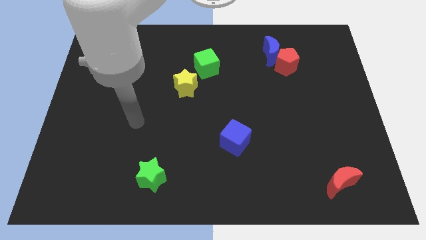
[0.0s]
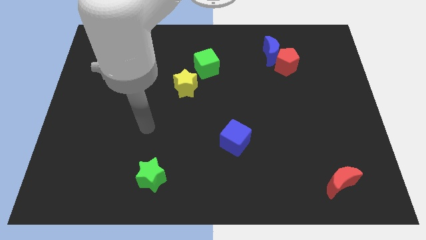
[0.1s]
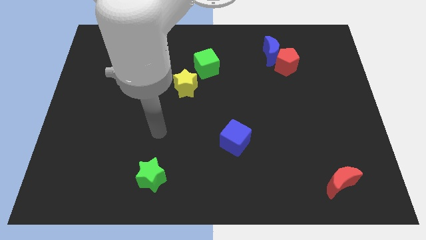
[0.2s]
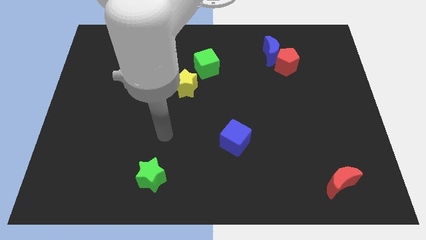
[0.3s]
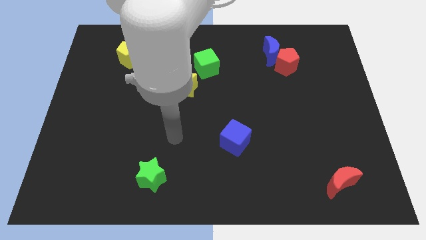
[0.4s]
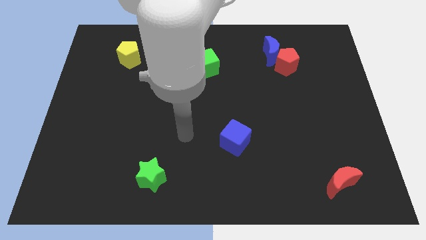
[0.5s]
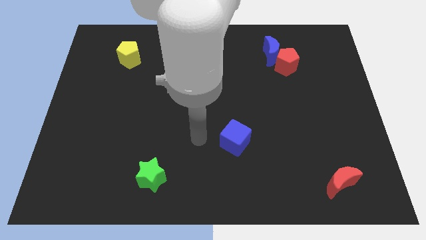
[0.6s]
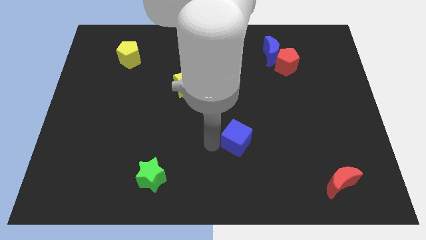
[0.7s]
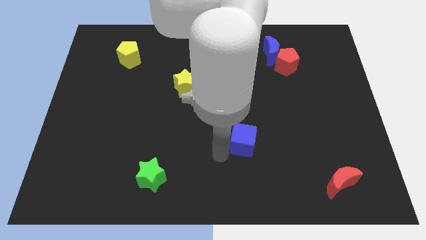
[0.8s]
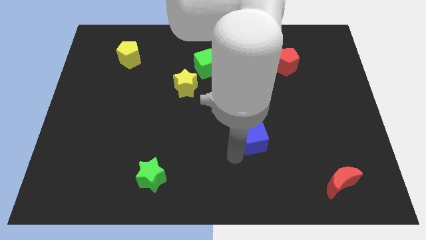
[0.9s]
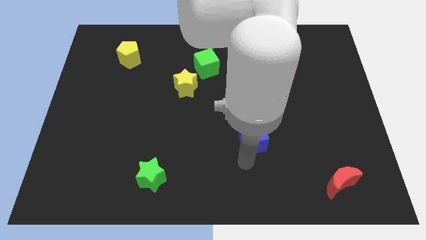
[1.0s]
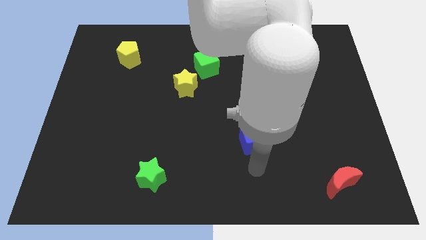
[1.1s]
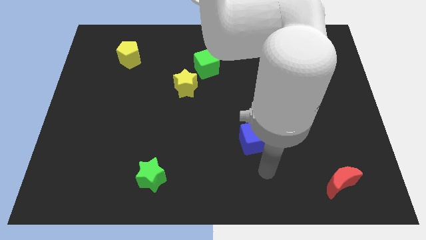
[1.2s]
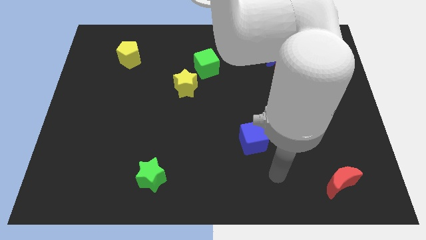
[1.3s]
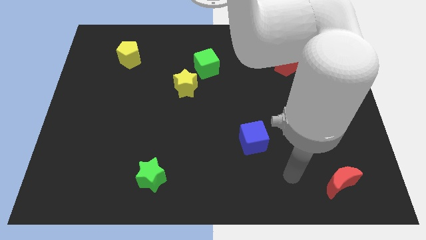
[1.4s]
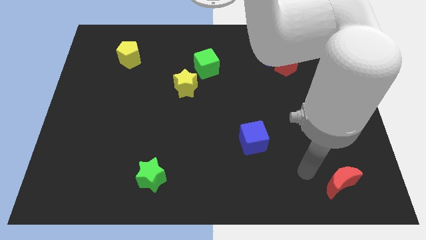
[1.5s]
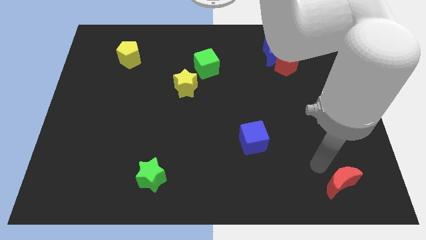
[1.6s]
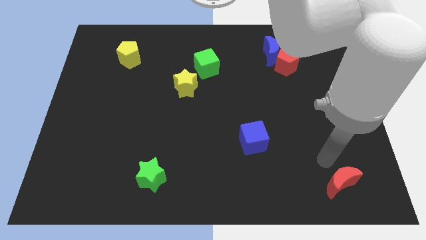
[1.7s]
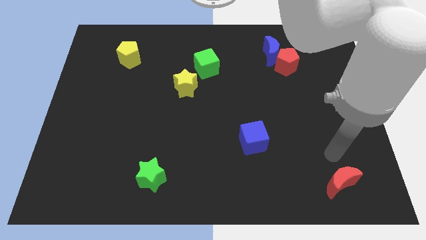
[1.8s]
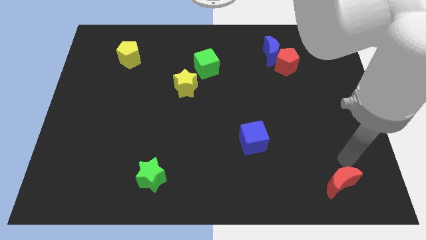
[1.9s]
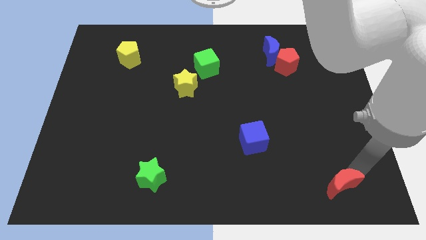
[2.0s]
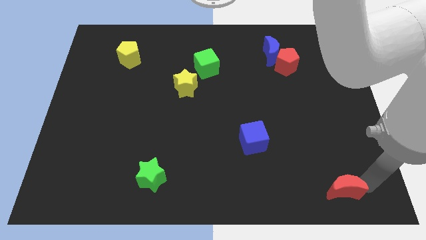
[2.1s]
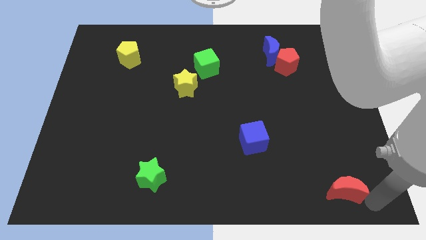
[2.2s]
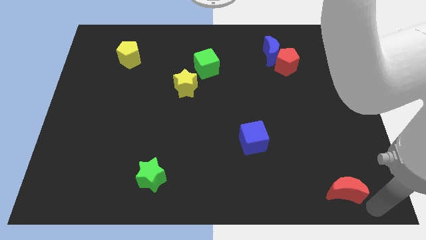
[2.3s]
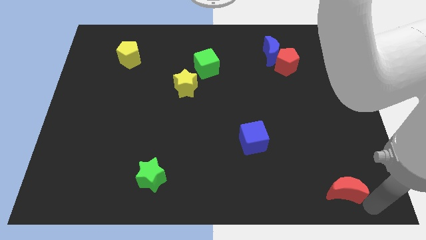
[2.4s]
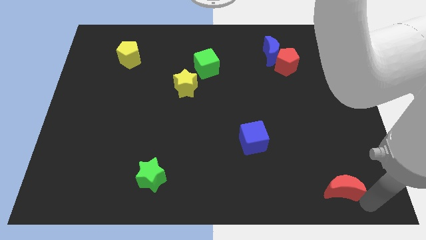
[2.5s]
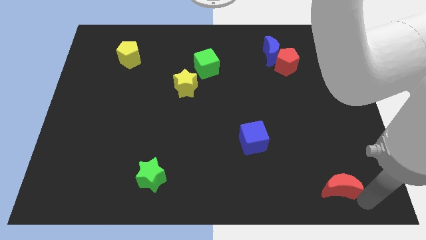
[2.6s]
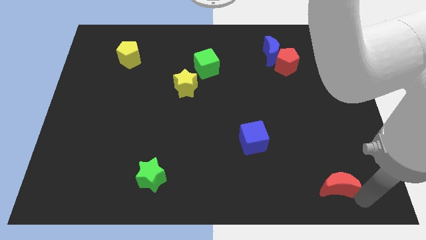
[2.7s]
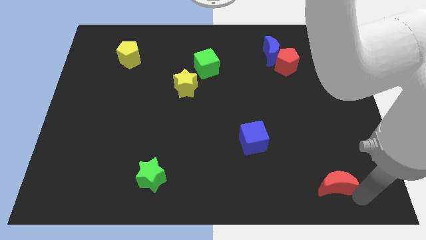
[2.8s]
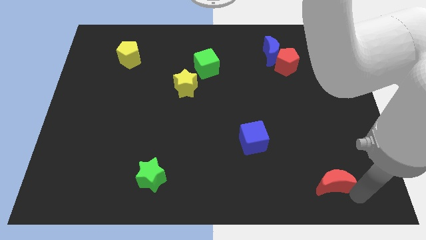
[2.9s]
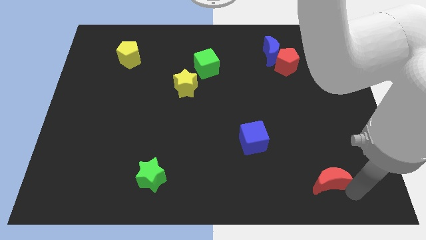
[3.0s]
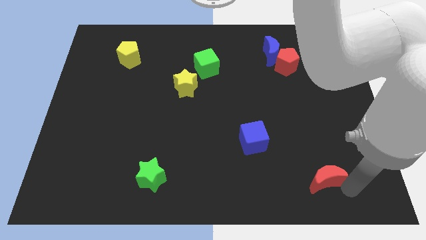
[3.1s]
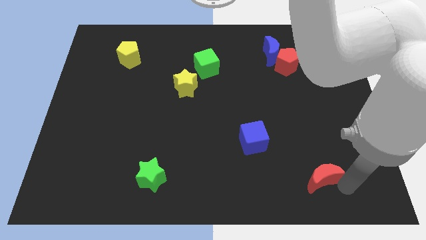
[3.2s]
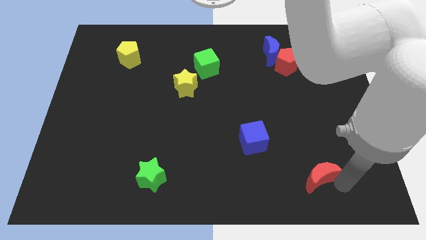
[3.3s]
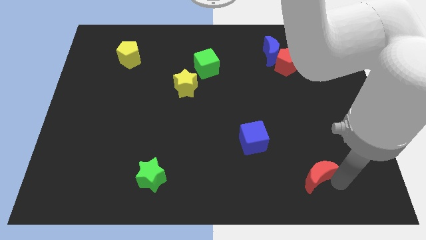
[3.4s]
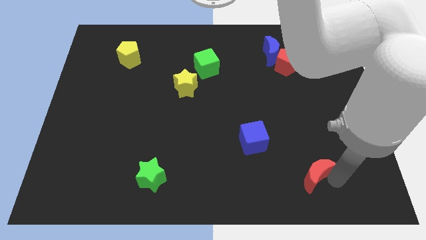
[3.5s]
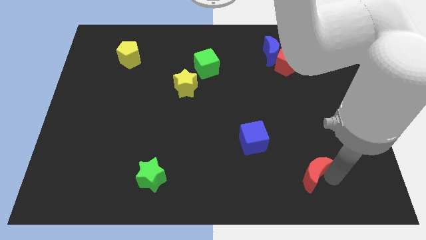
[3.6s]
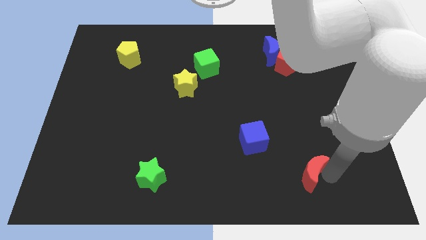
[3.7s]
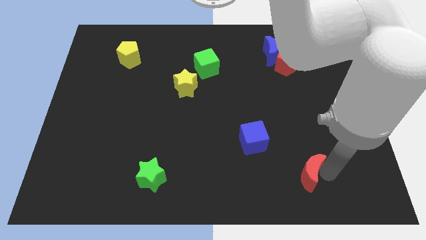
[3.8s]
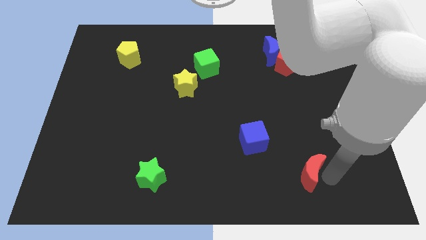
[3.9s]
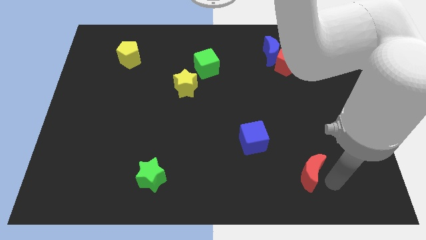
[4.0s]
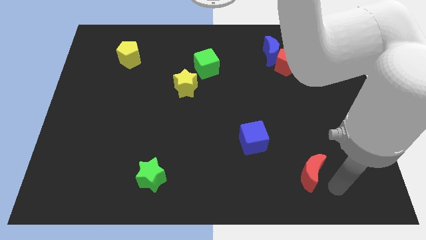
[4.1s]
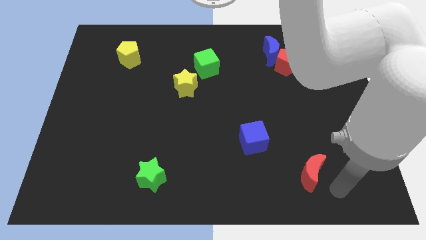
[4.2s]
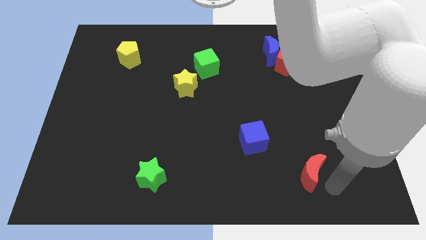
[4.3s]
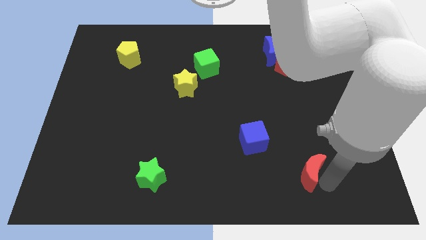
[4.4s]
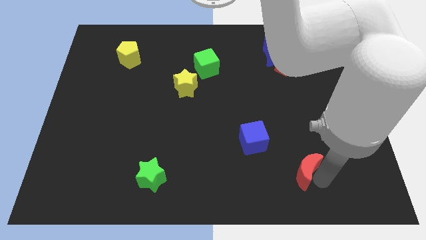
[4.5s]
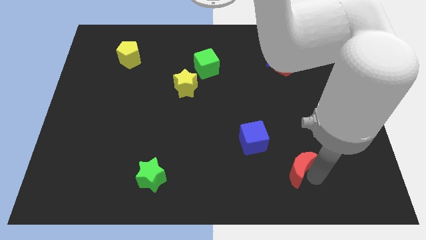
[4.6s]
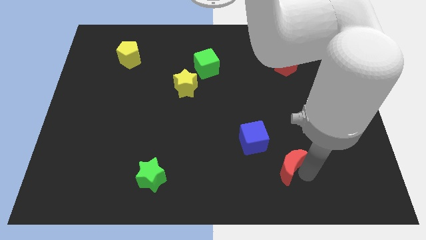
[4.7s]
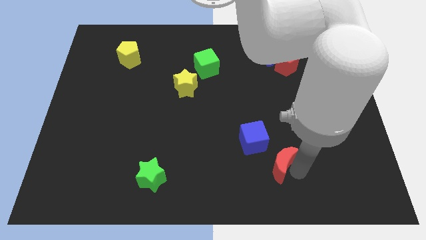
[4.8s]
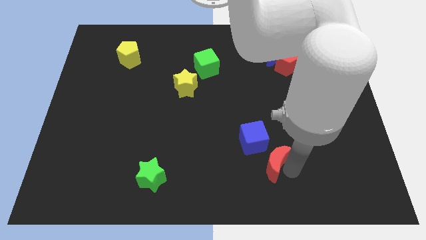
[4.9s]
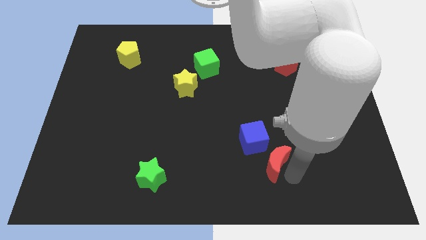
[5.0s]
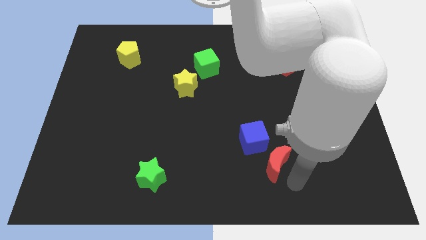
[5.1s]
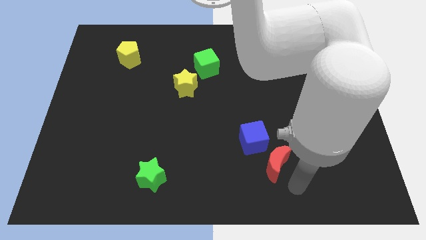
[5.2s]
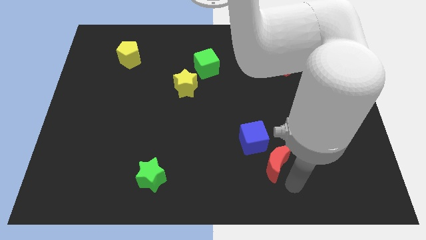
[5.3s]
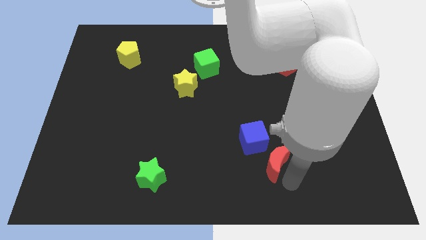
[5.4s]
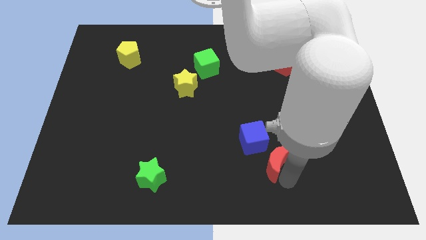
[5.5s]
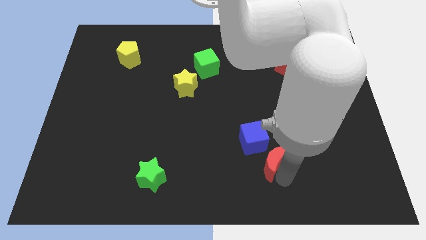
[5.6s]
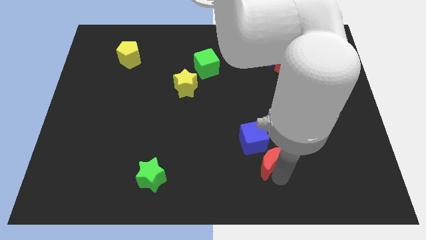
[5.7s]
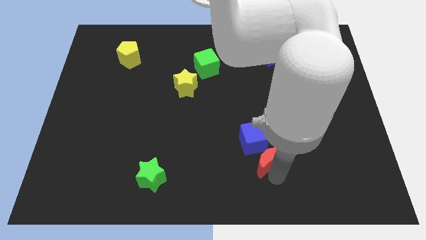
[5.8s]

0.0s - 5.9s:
move the red moon next to the blue cube

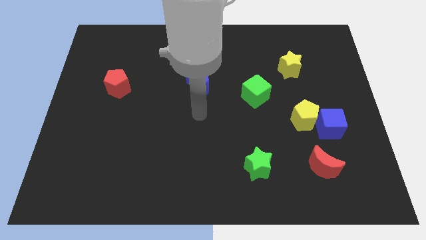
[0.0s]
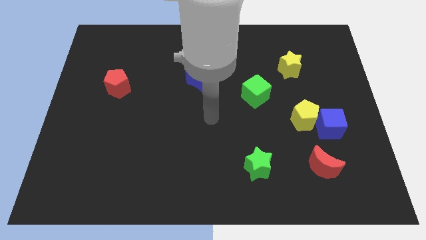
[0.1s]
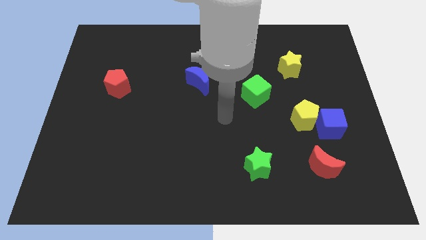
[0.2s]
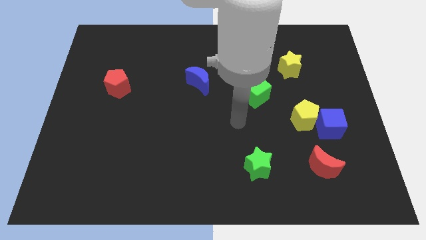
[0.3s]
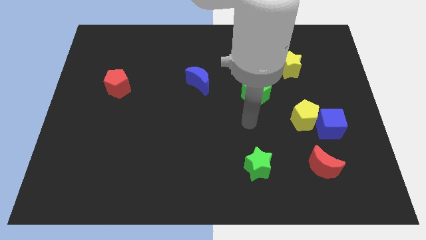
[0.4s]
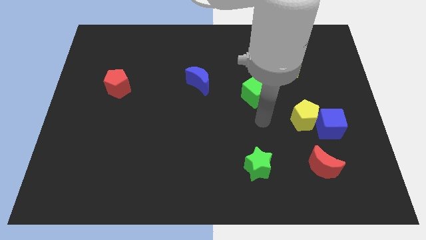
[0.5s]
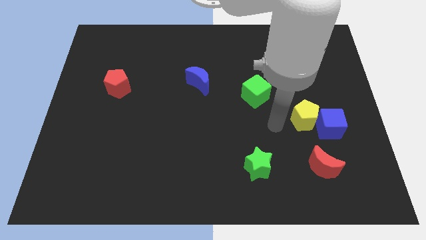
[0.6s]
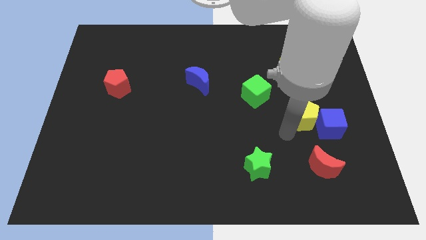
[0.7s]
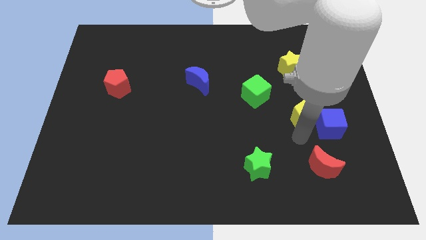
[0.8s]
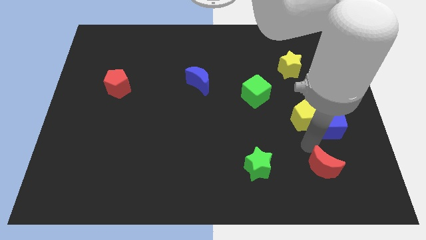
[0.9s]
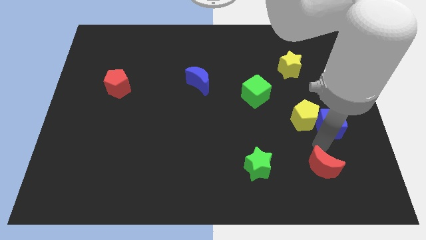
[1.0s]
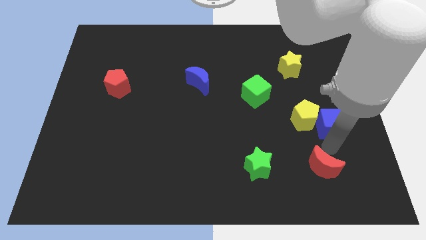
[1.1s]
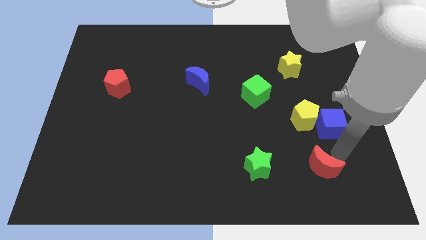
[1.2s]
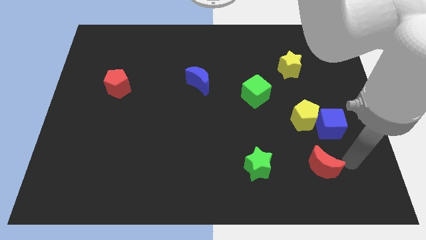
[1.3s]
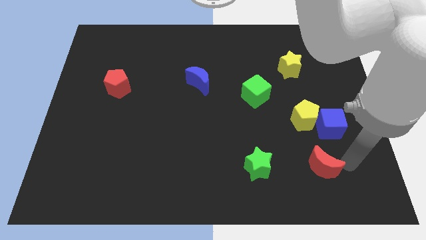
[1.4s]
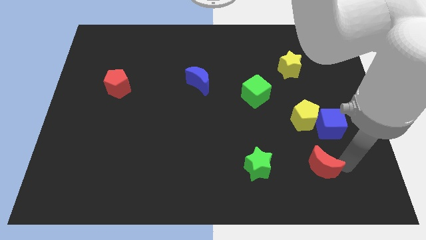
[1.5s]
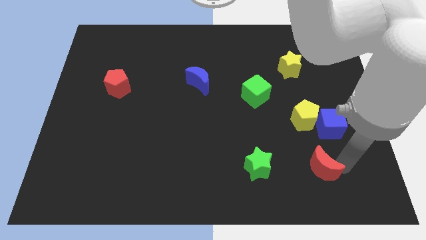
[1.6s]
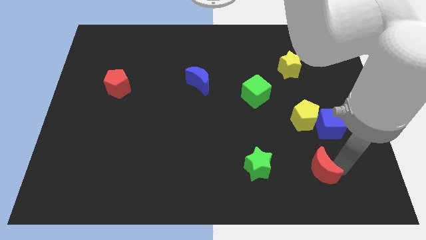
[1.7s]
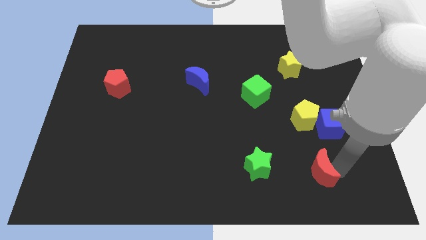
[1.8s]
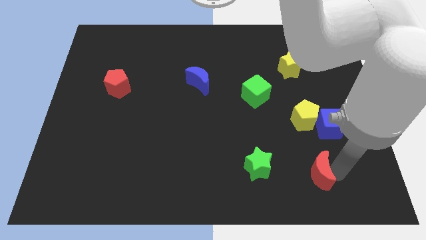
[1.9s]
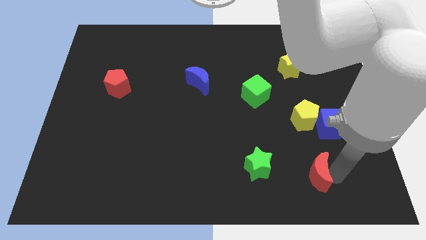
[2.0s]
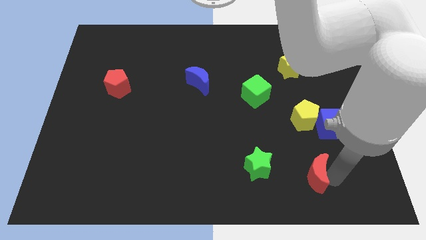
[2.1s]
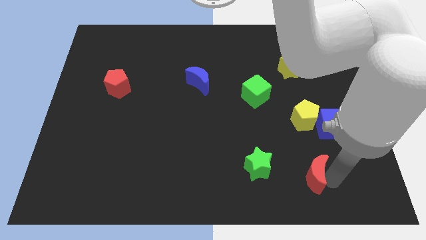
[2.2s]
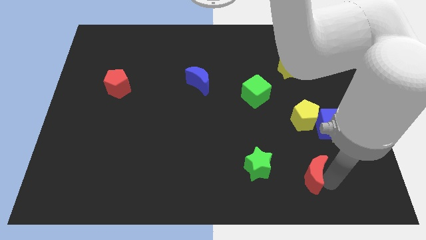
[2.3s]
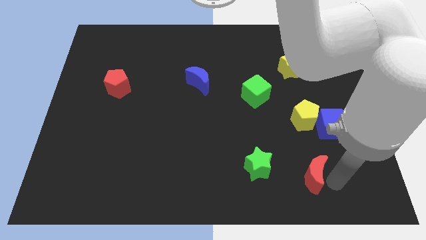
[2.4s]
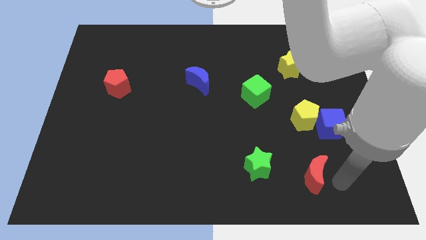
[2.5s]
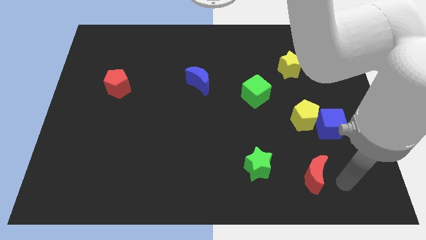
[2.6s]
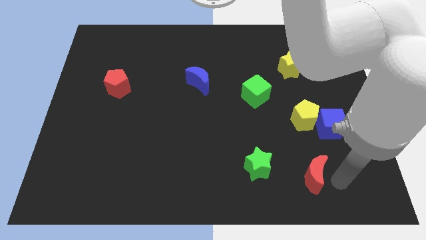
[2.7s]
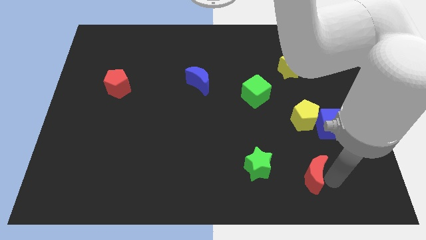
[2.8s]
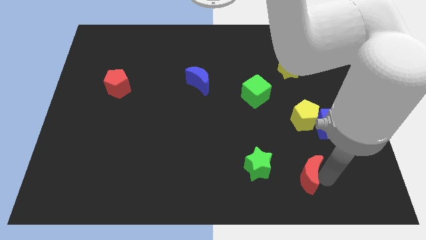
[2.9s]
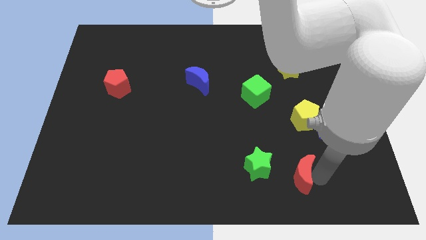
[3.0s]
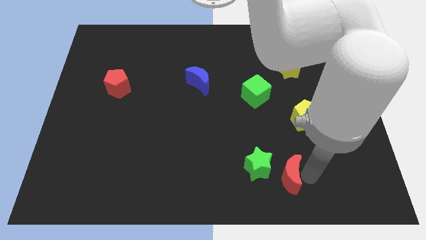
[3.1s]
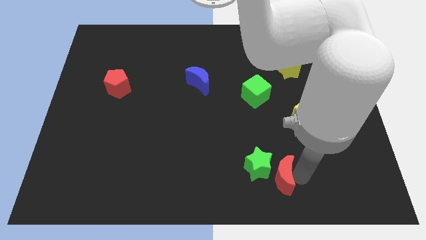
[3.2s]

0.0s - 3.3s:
slide the red moon close to the green star
